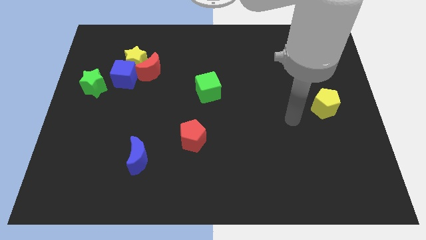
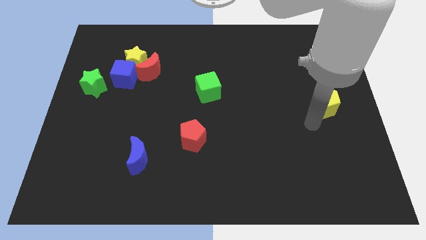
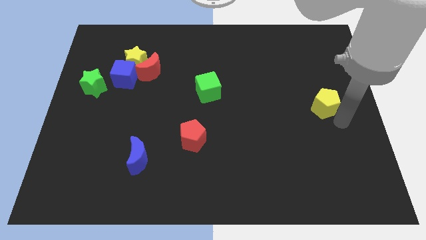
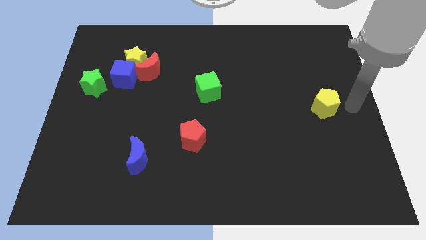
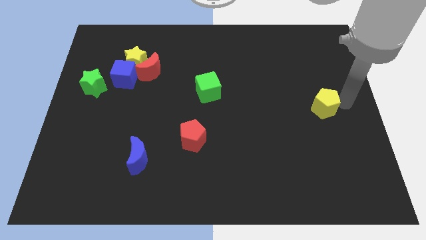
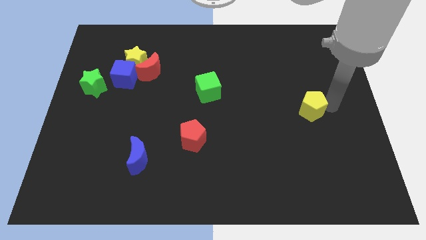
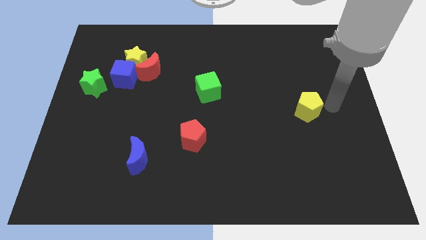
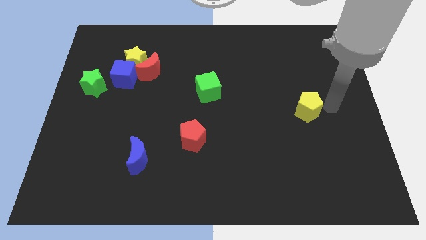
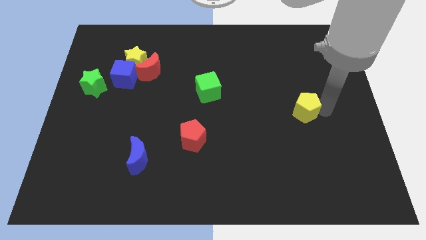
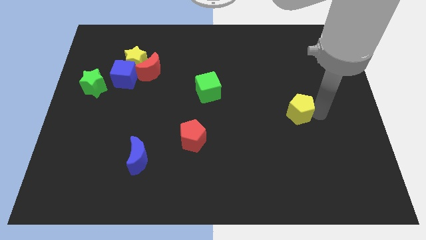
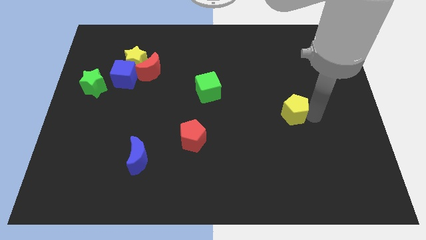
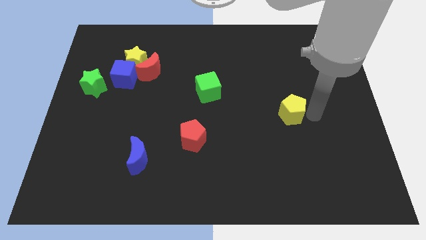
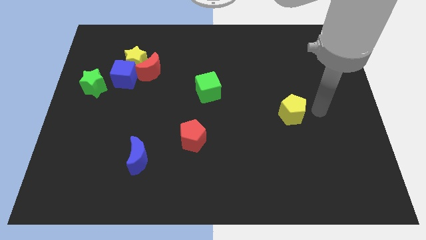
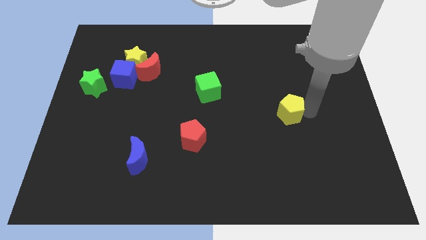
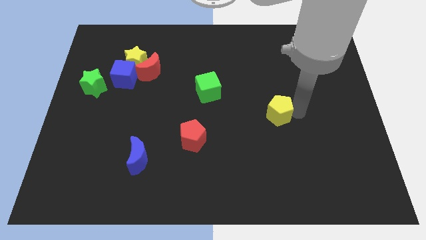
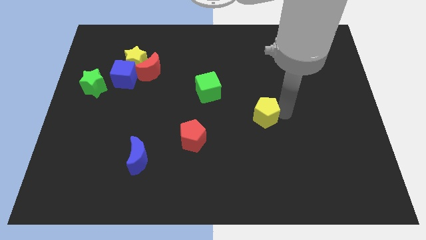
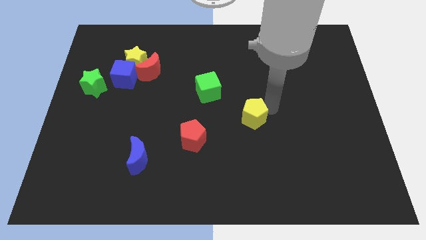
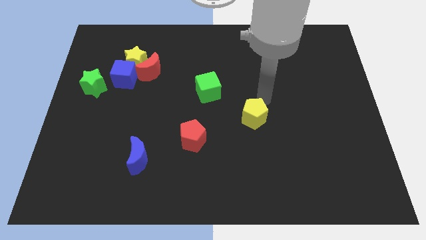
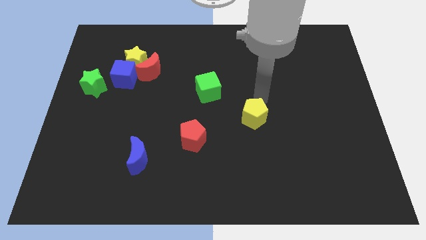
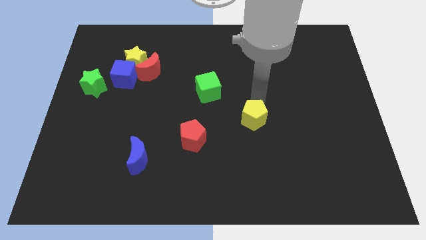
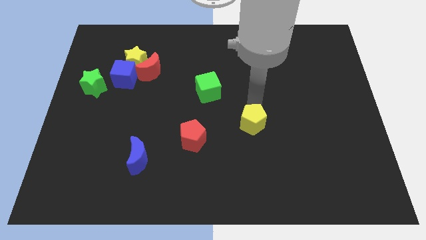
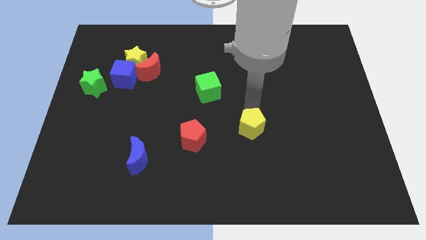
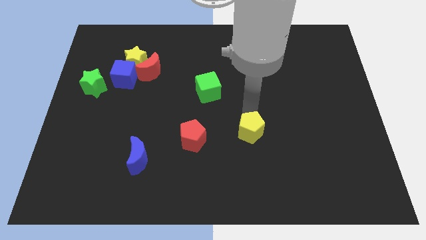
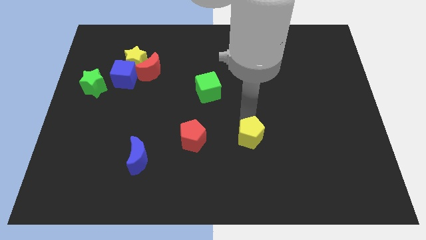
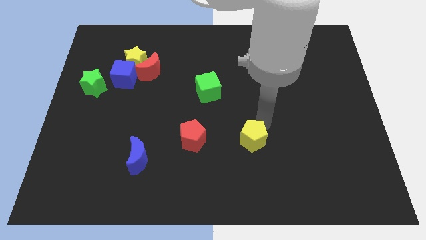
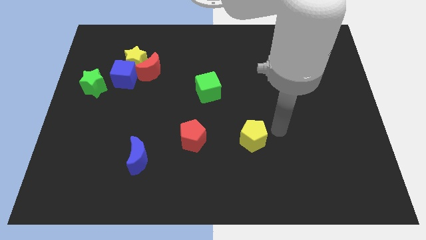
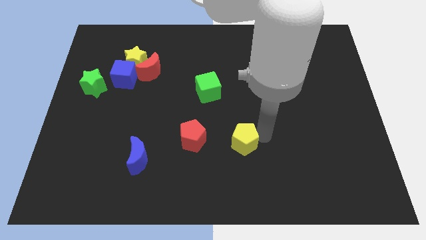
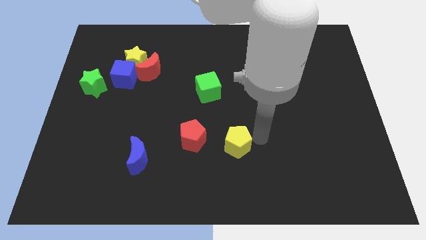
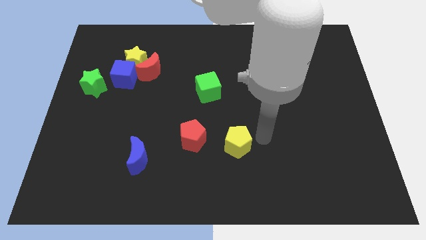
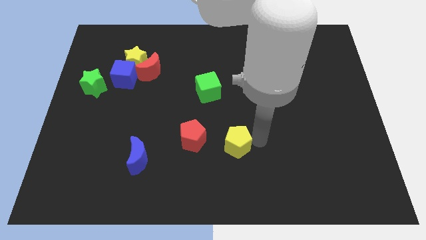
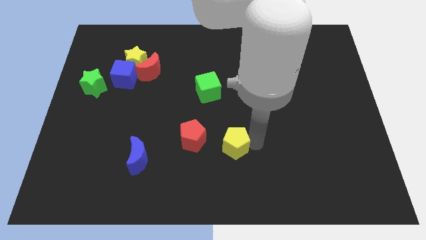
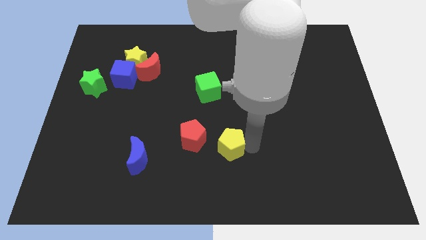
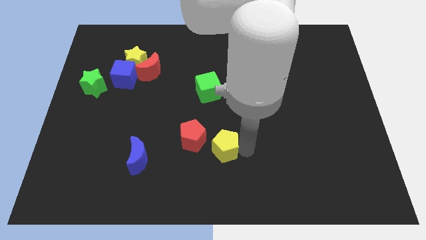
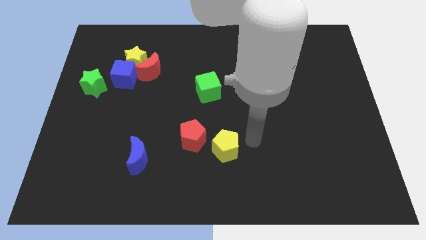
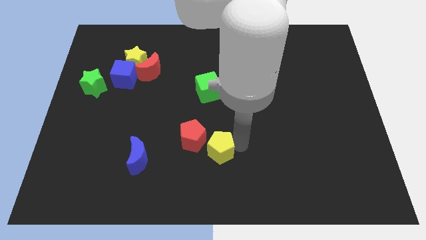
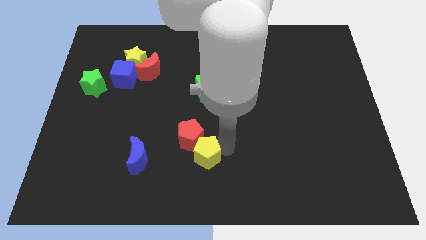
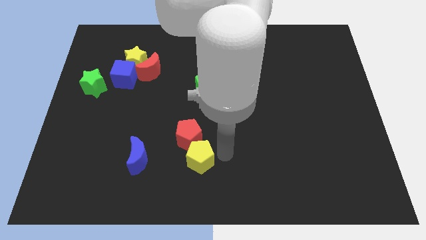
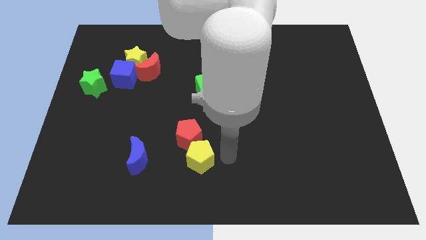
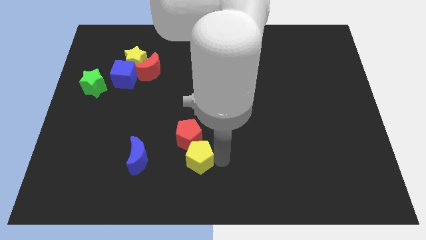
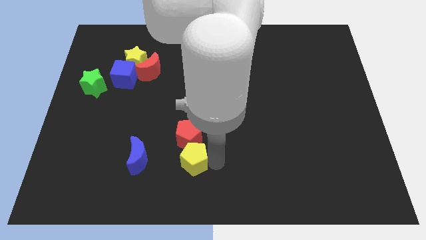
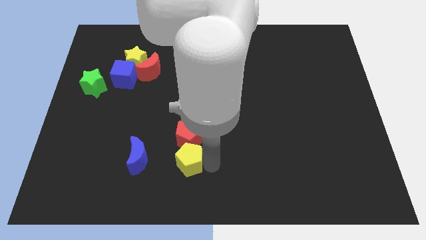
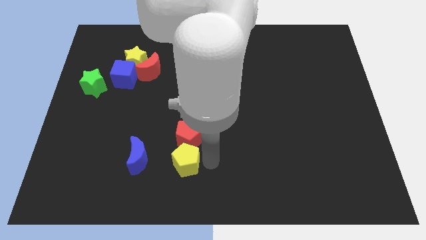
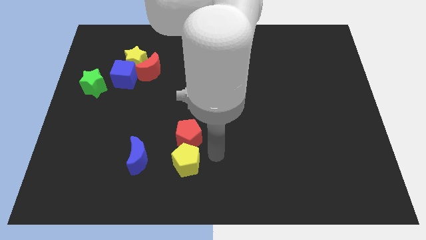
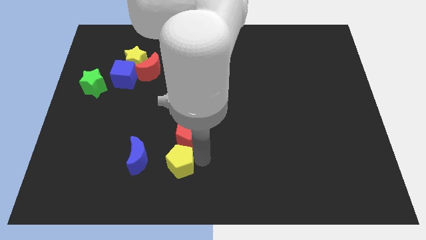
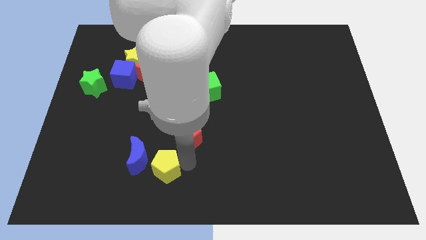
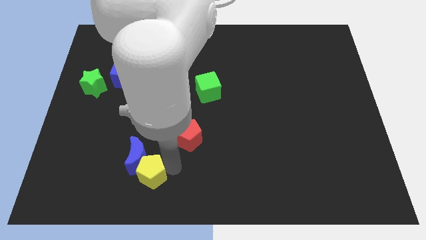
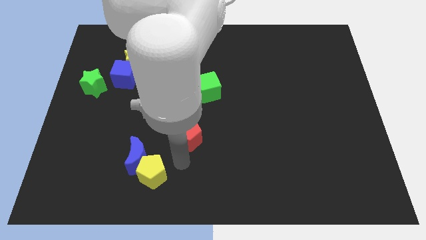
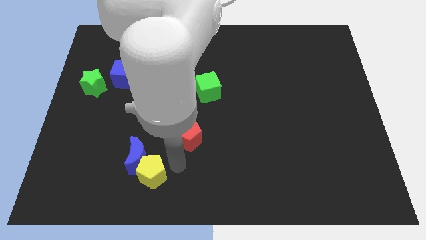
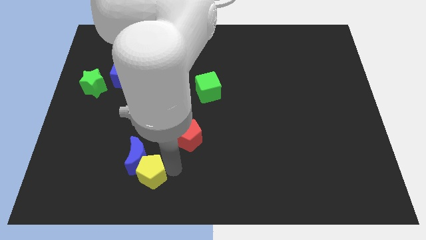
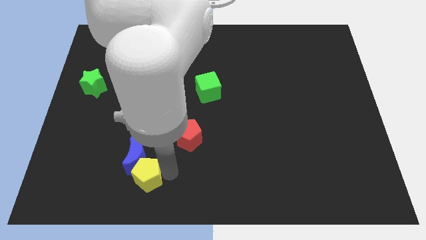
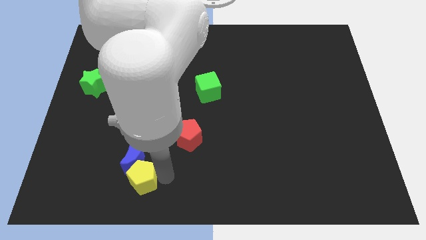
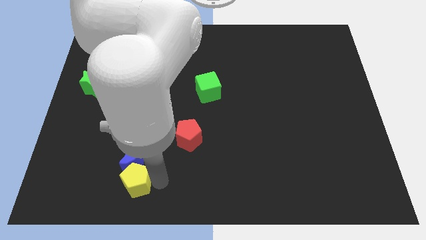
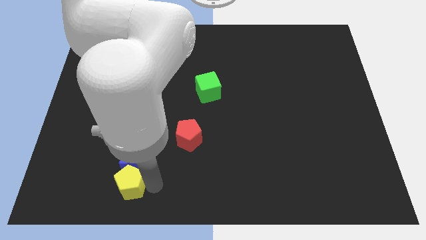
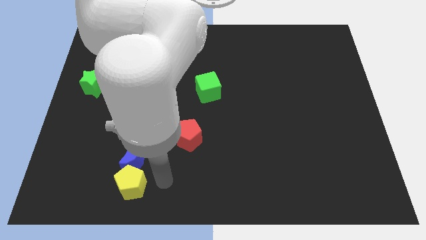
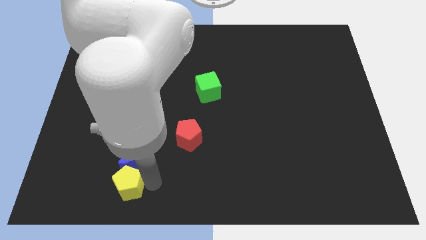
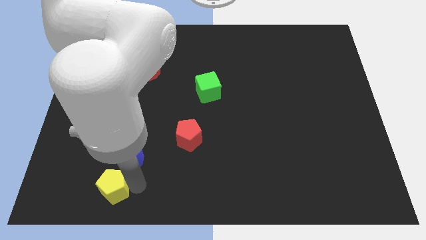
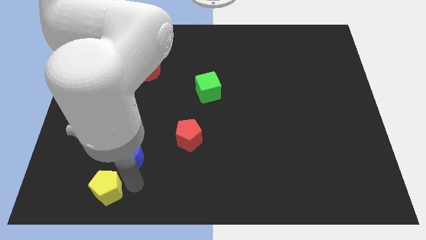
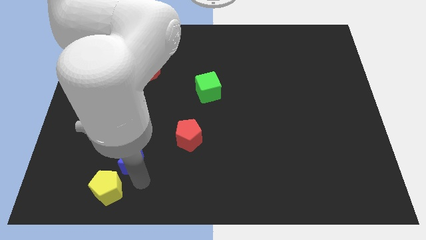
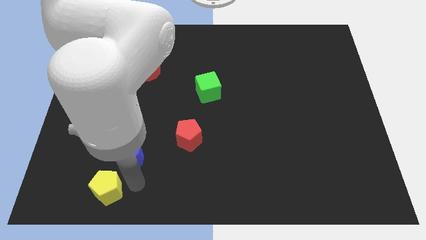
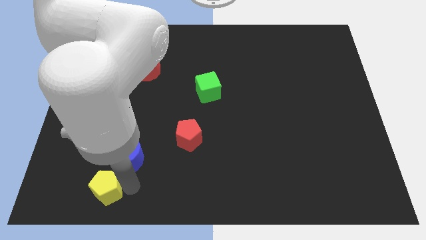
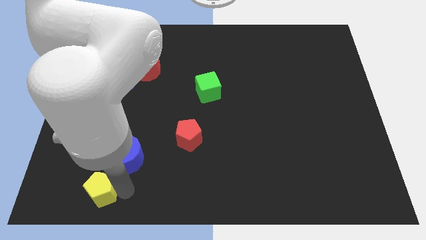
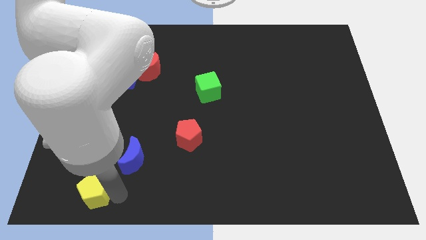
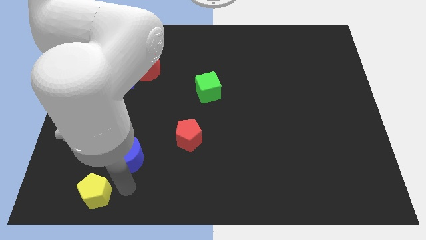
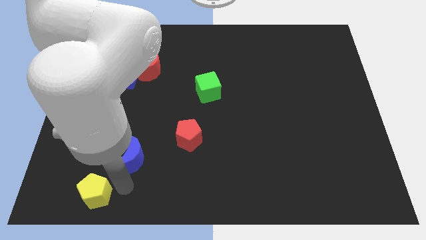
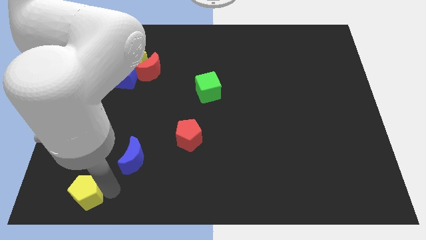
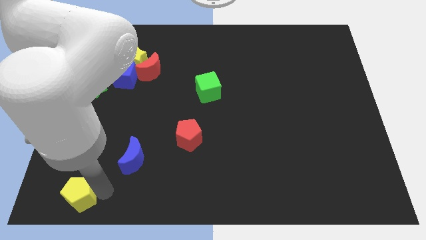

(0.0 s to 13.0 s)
move the yellow pentagon to the lower left corner
